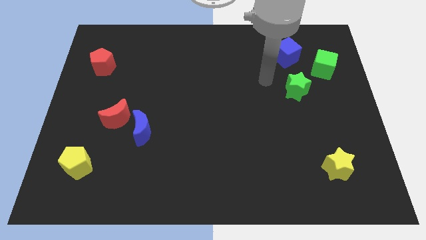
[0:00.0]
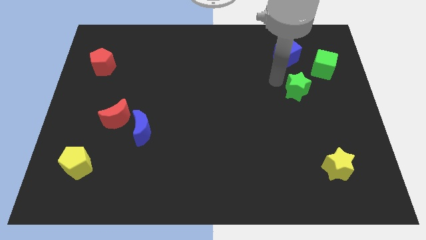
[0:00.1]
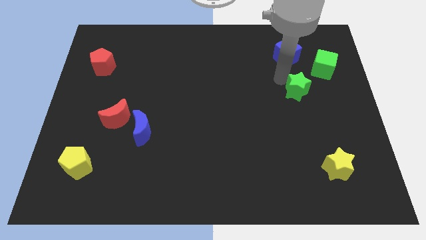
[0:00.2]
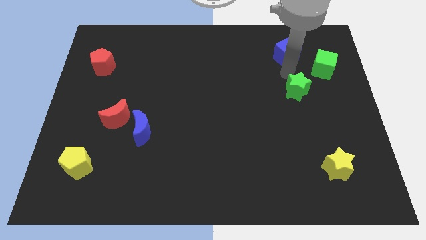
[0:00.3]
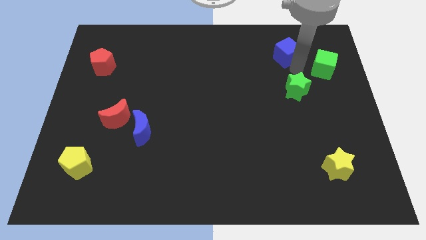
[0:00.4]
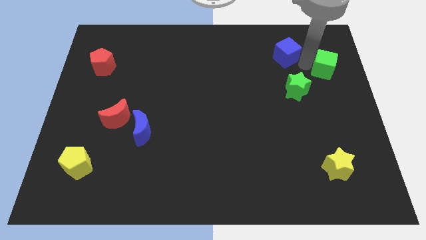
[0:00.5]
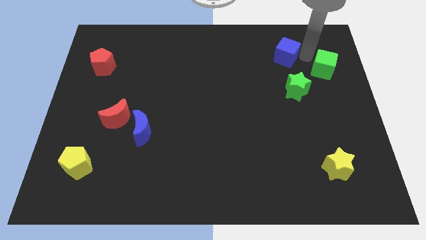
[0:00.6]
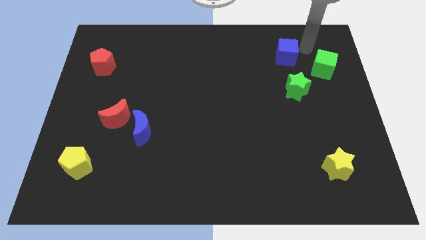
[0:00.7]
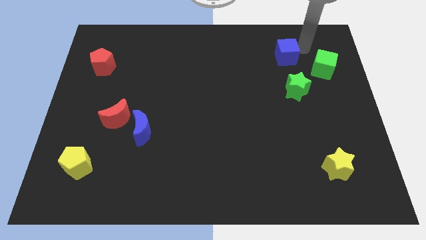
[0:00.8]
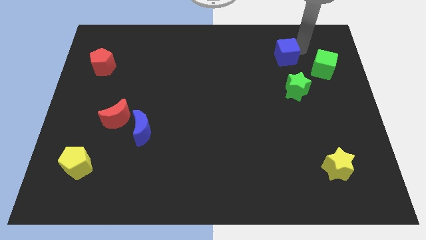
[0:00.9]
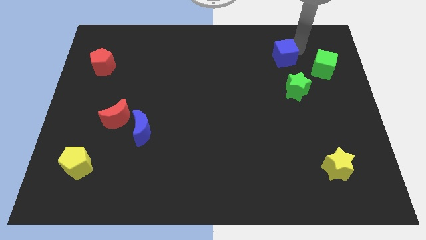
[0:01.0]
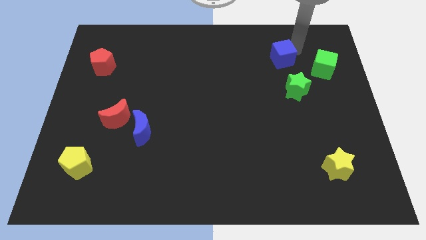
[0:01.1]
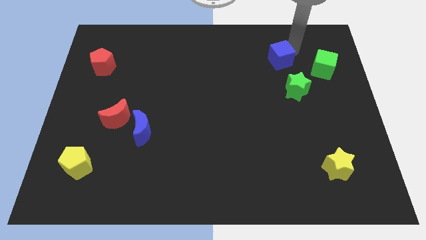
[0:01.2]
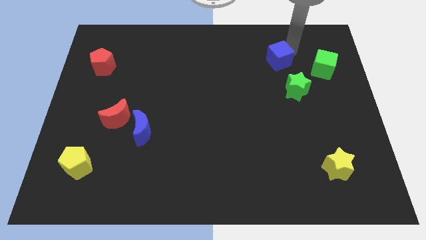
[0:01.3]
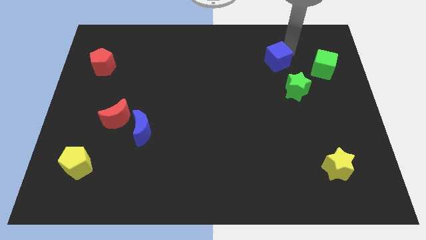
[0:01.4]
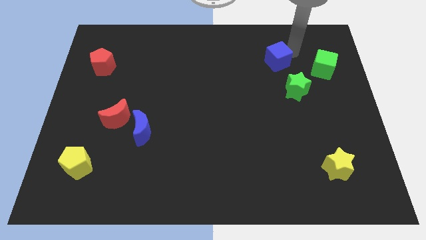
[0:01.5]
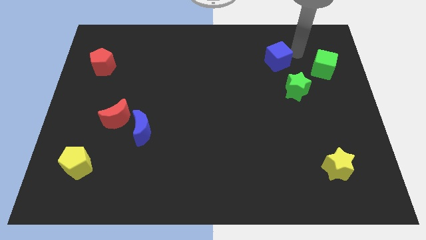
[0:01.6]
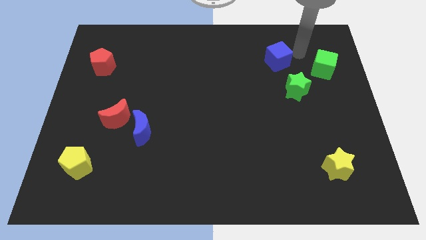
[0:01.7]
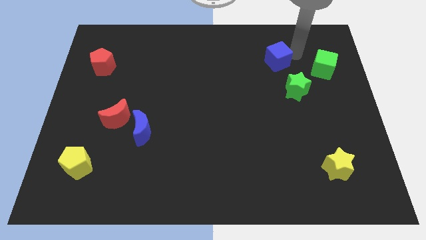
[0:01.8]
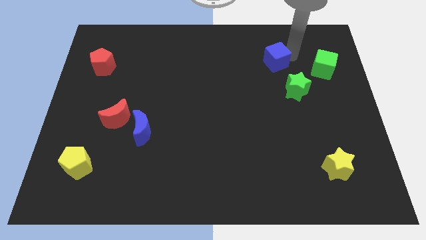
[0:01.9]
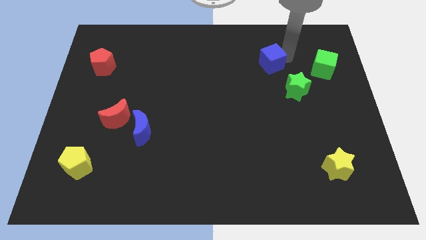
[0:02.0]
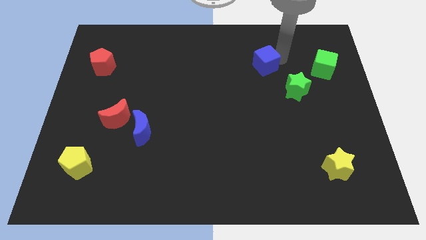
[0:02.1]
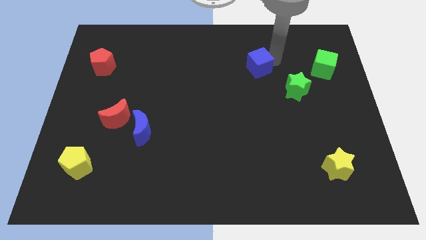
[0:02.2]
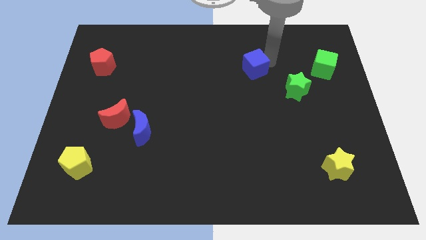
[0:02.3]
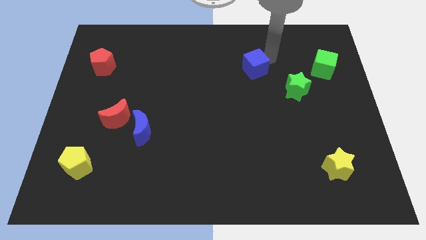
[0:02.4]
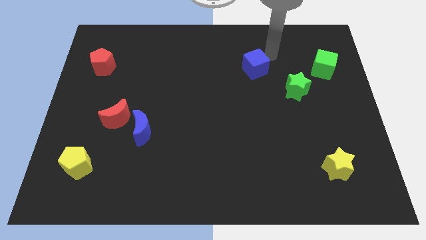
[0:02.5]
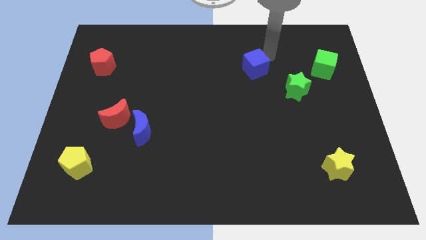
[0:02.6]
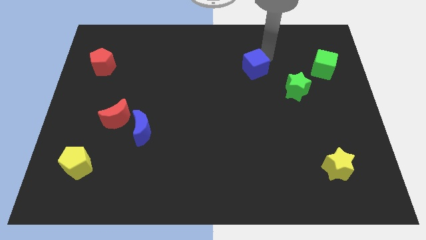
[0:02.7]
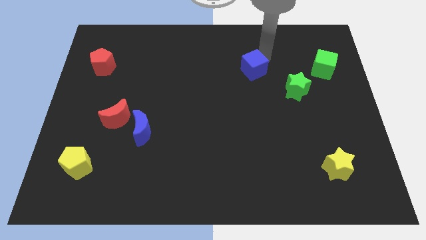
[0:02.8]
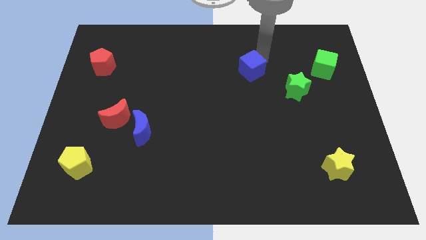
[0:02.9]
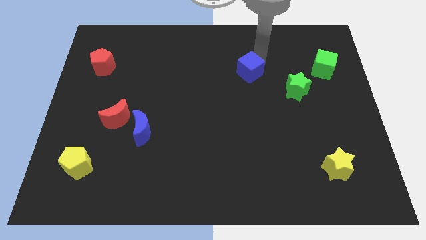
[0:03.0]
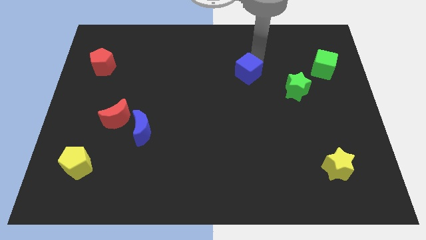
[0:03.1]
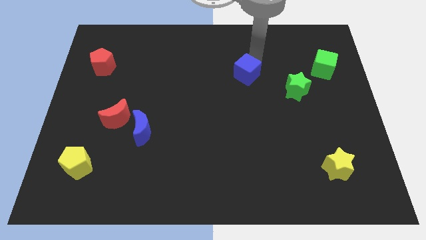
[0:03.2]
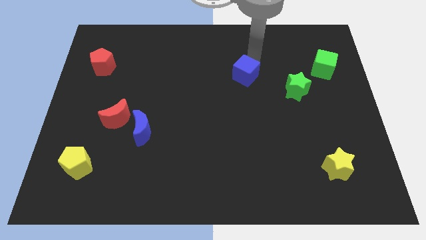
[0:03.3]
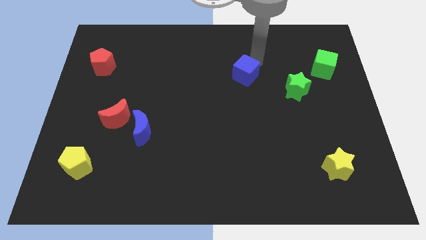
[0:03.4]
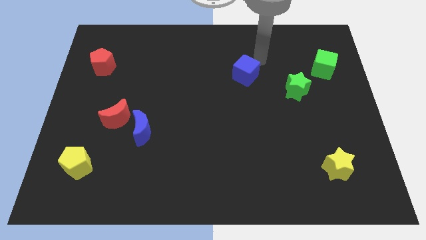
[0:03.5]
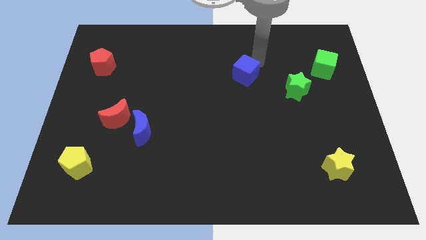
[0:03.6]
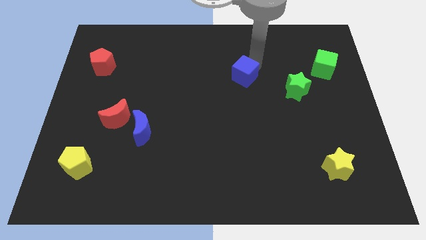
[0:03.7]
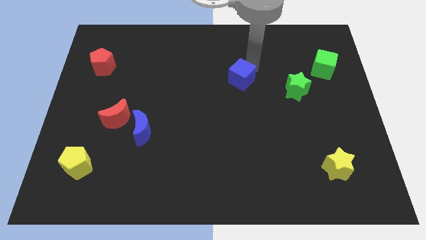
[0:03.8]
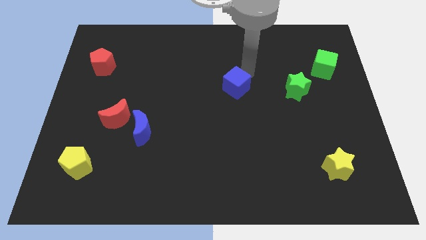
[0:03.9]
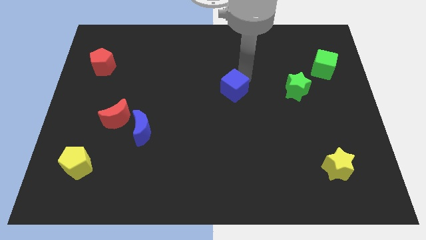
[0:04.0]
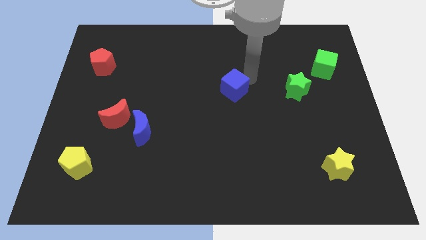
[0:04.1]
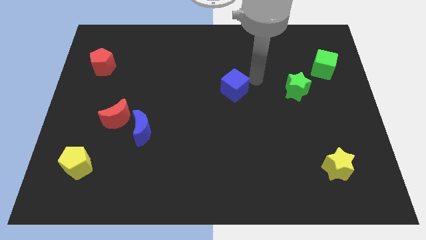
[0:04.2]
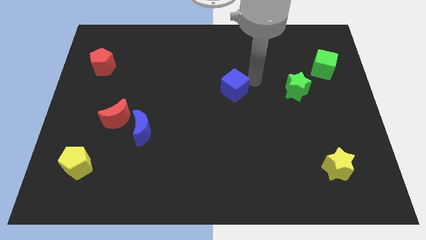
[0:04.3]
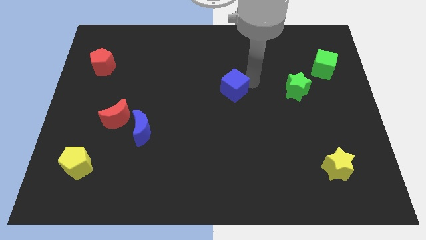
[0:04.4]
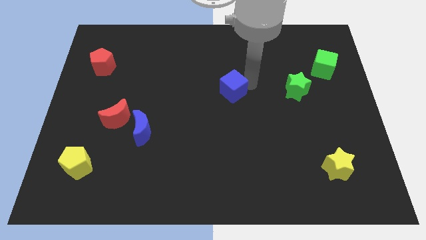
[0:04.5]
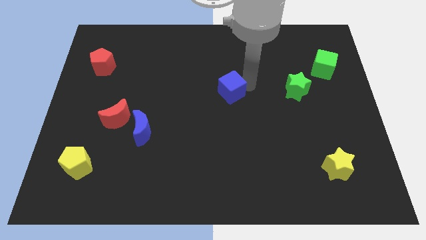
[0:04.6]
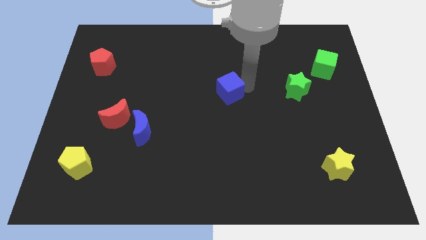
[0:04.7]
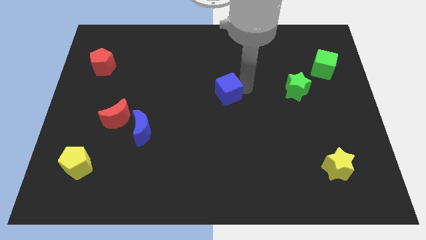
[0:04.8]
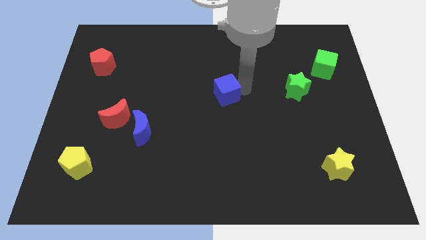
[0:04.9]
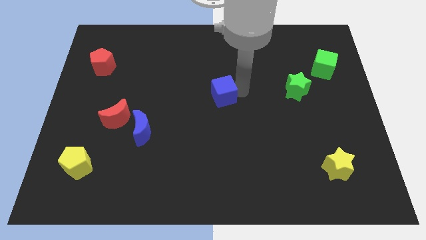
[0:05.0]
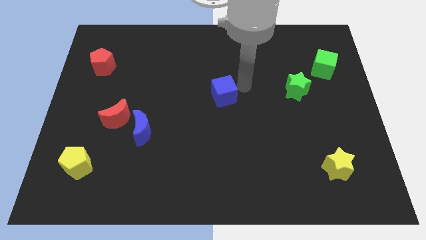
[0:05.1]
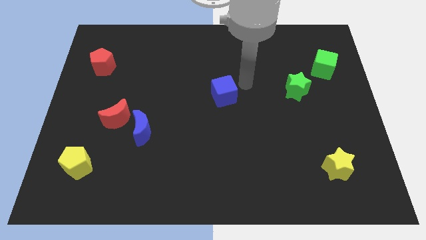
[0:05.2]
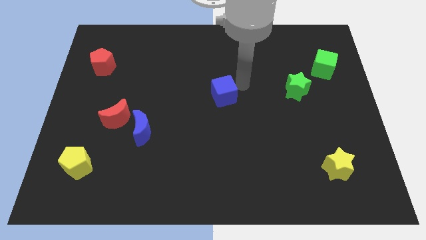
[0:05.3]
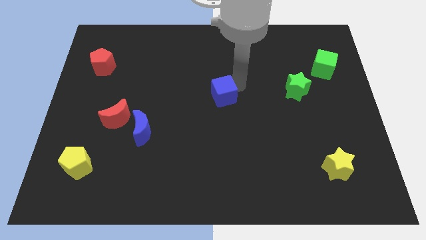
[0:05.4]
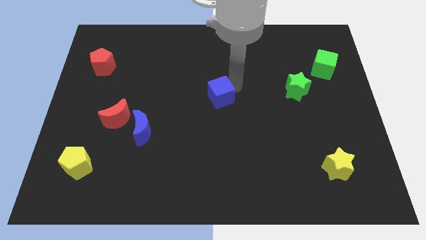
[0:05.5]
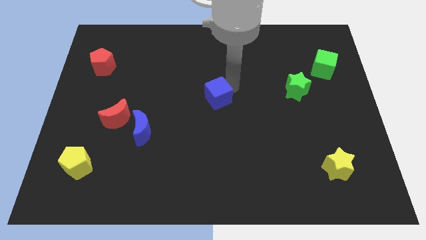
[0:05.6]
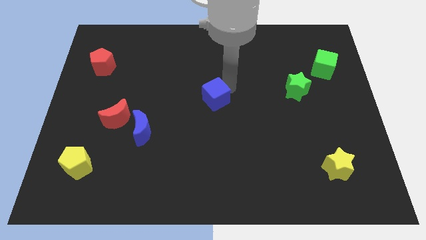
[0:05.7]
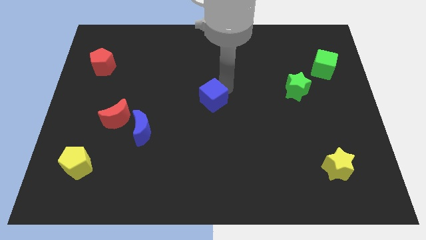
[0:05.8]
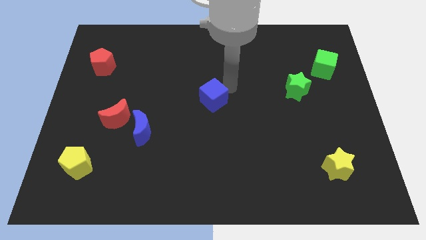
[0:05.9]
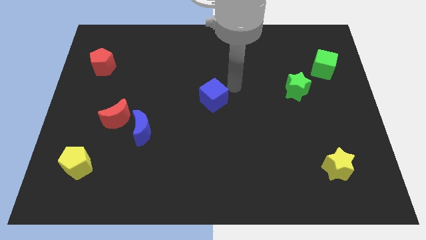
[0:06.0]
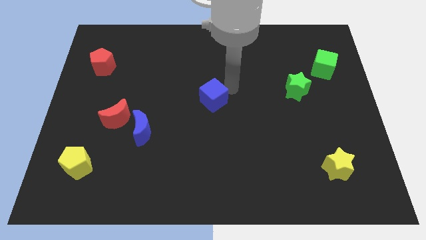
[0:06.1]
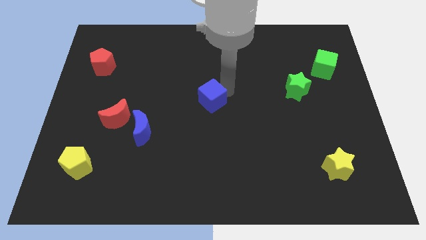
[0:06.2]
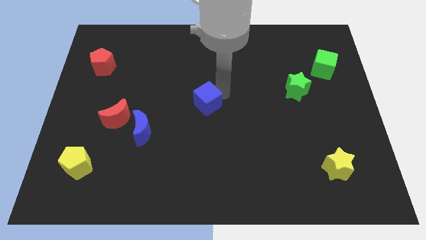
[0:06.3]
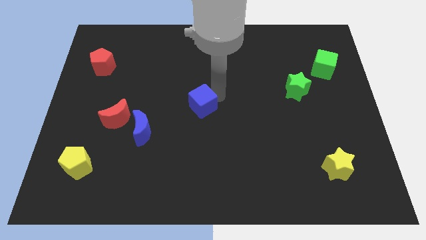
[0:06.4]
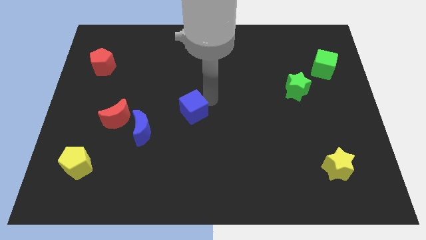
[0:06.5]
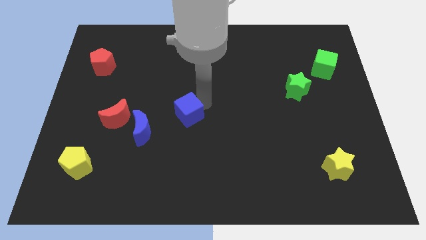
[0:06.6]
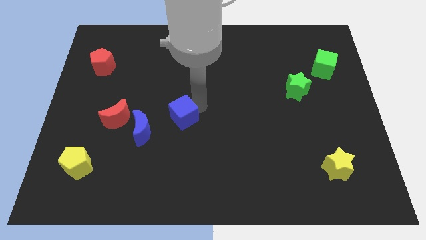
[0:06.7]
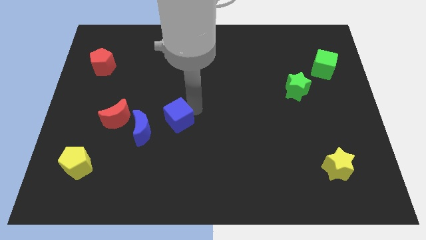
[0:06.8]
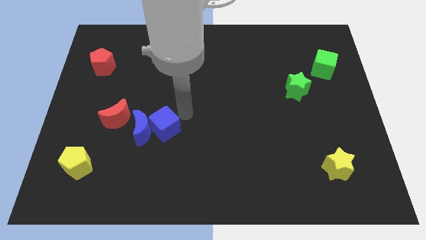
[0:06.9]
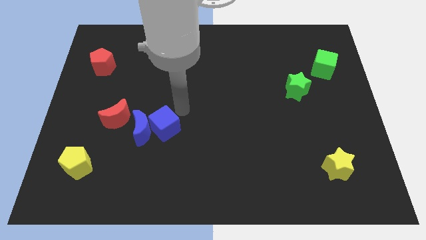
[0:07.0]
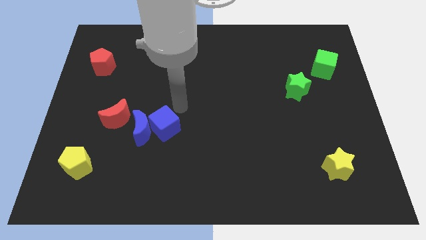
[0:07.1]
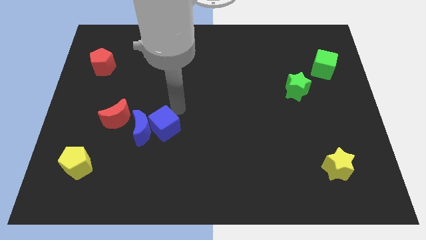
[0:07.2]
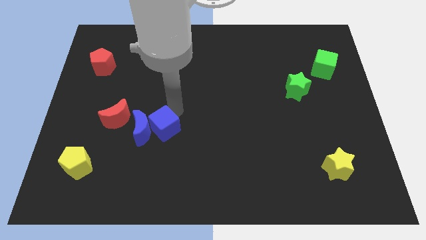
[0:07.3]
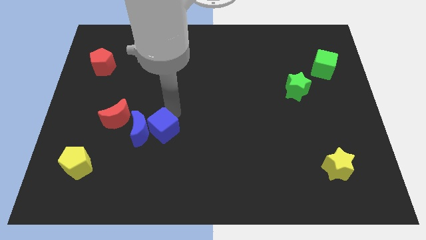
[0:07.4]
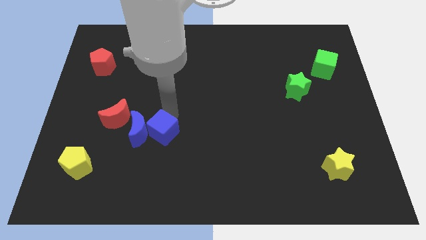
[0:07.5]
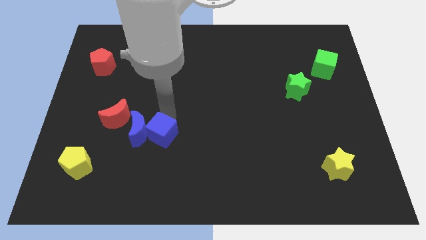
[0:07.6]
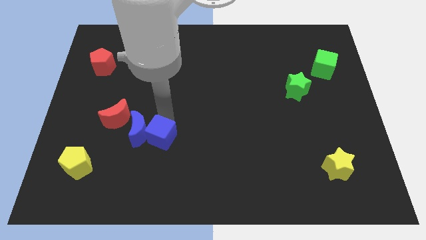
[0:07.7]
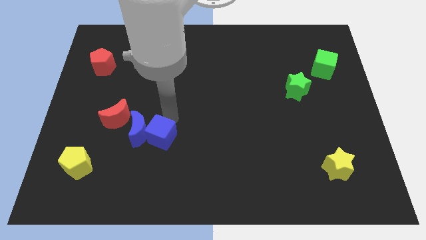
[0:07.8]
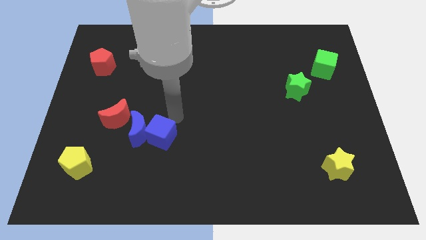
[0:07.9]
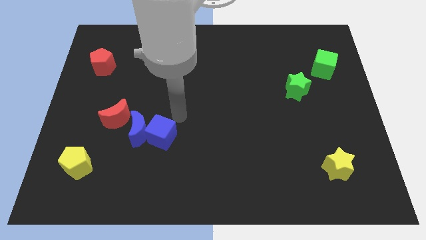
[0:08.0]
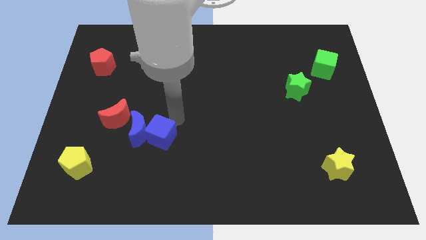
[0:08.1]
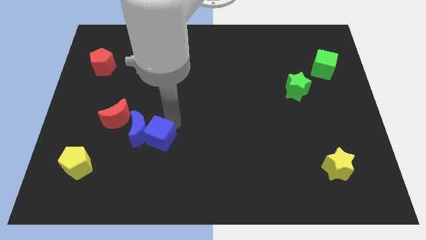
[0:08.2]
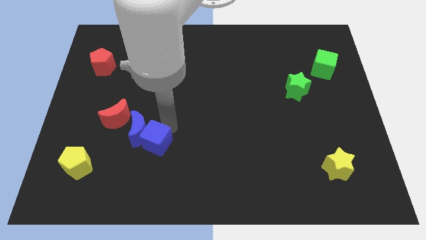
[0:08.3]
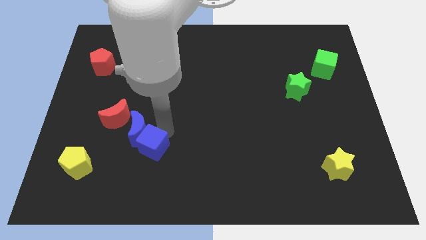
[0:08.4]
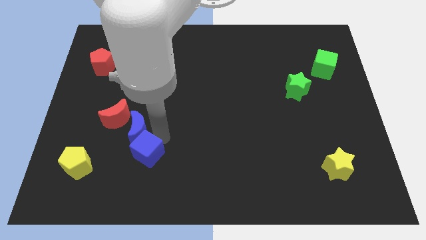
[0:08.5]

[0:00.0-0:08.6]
move the blue cube just right of the yellow pentagon
